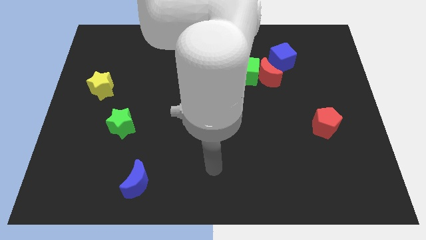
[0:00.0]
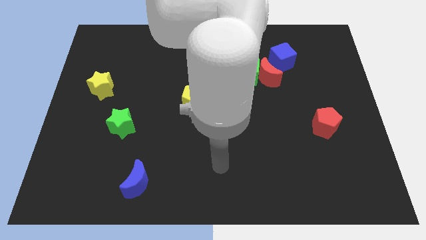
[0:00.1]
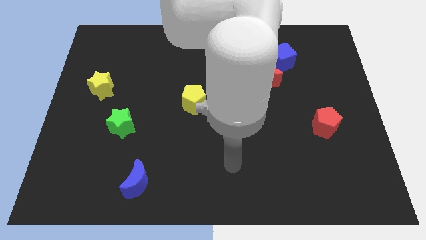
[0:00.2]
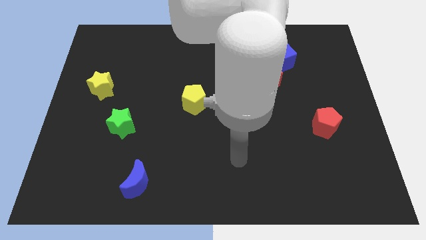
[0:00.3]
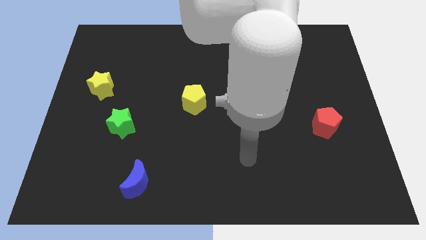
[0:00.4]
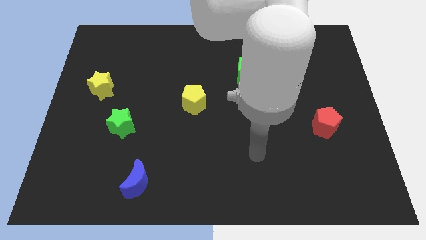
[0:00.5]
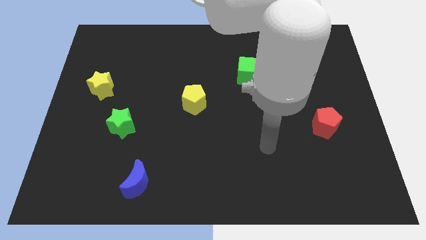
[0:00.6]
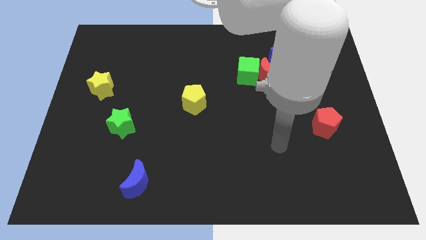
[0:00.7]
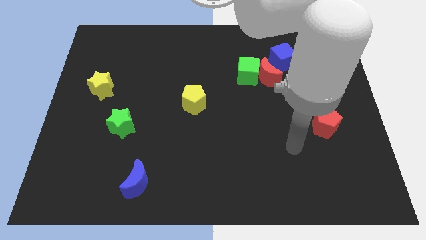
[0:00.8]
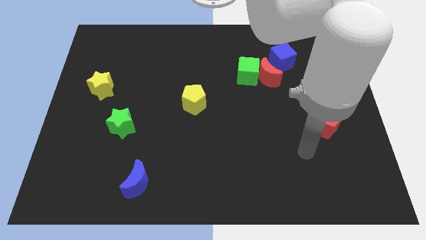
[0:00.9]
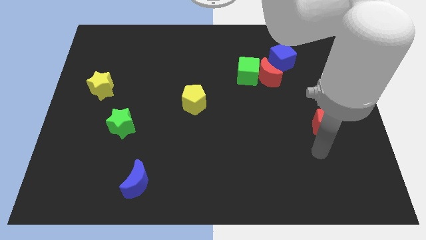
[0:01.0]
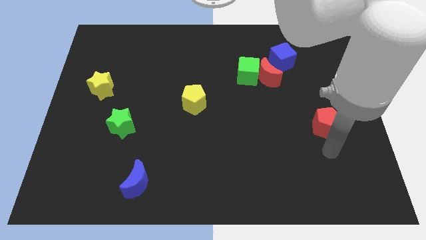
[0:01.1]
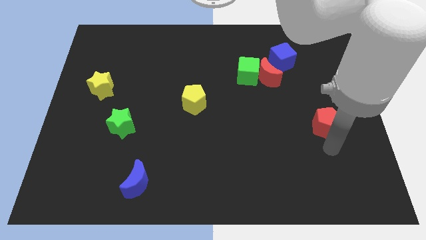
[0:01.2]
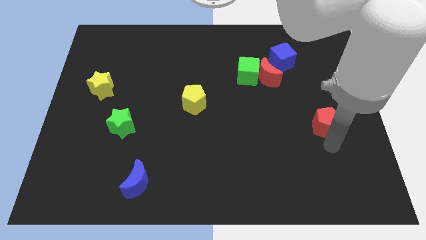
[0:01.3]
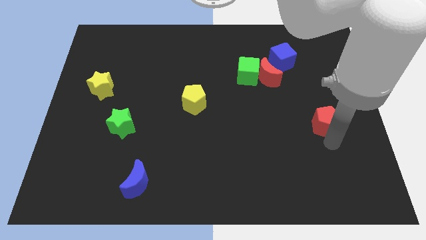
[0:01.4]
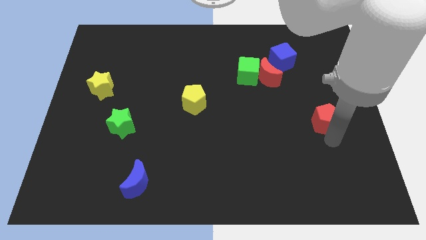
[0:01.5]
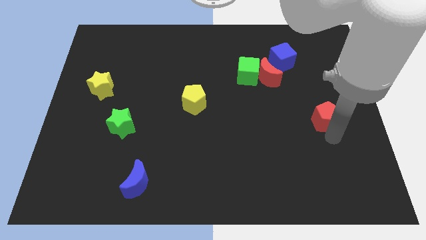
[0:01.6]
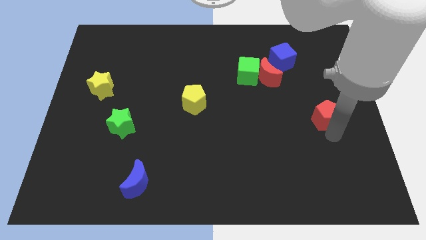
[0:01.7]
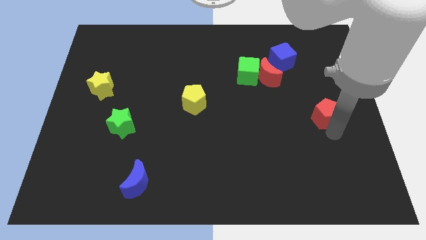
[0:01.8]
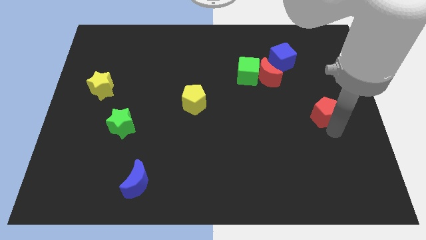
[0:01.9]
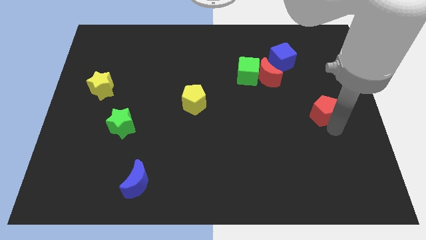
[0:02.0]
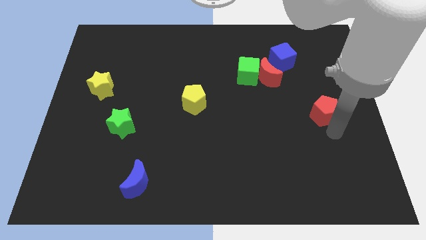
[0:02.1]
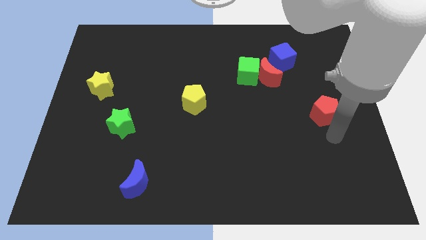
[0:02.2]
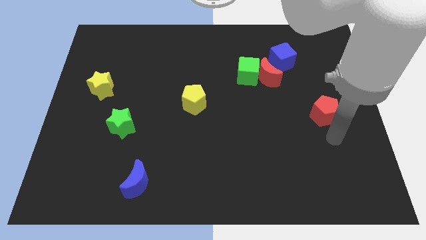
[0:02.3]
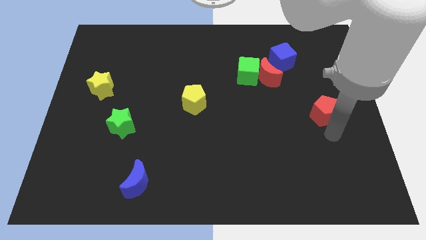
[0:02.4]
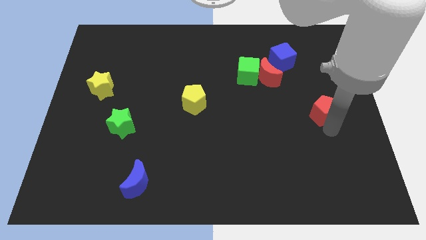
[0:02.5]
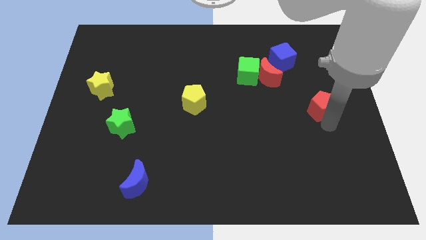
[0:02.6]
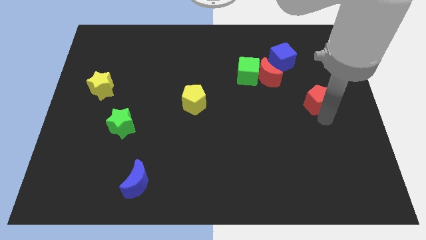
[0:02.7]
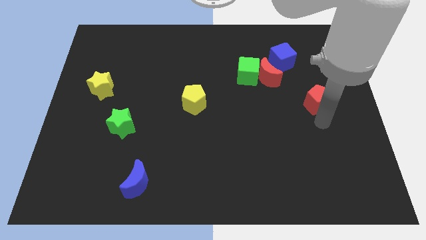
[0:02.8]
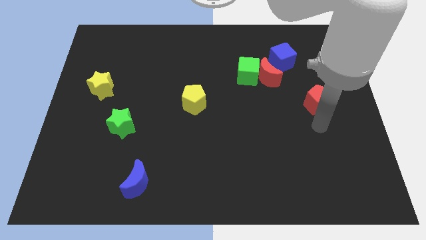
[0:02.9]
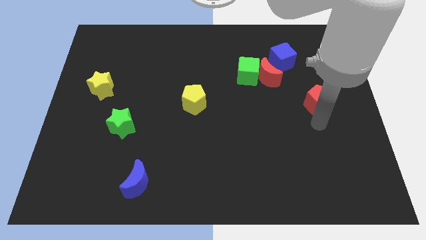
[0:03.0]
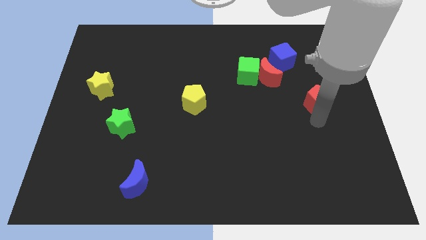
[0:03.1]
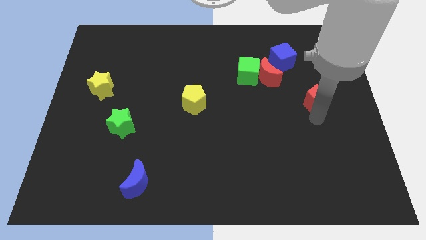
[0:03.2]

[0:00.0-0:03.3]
slightly slide the red pentagon upwards

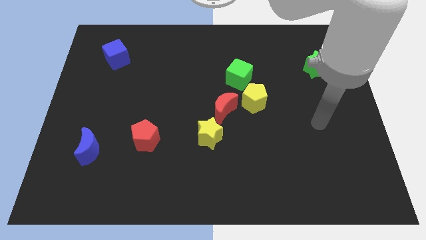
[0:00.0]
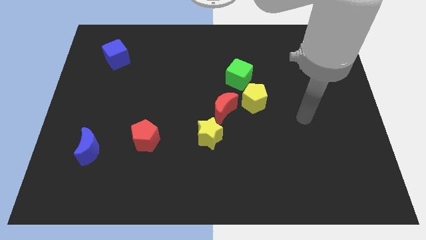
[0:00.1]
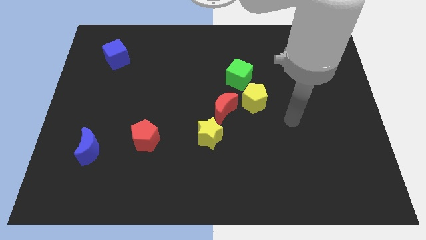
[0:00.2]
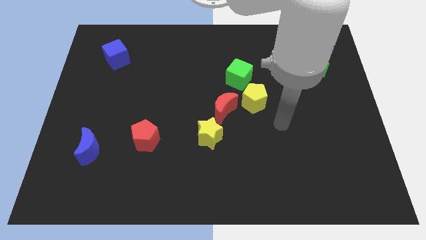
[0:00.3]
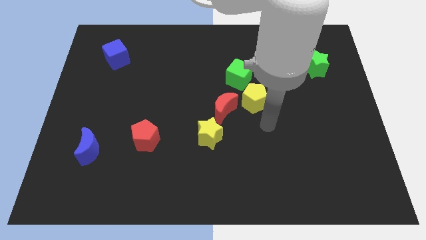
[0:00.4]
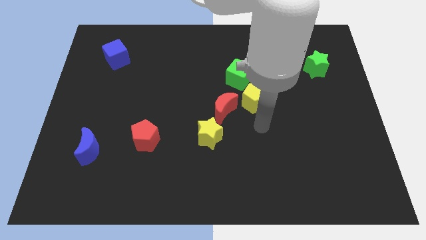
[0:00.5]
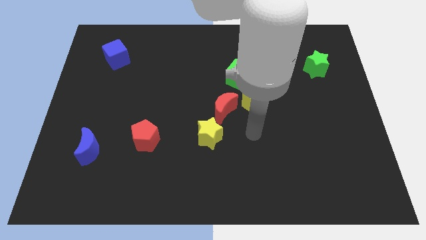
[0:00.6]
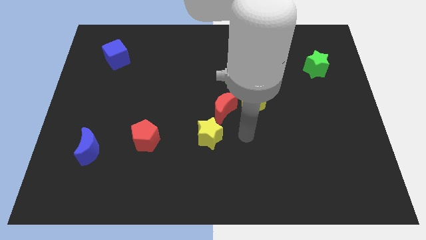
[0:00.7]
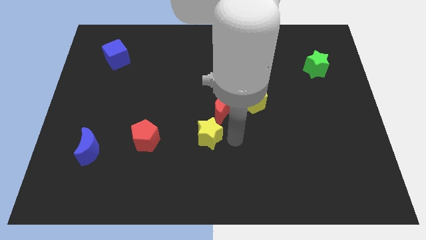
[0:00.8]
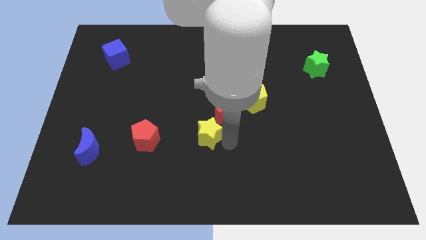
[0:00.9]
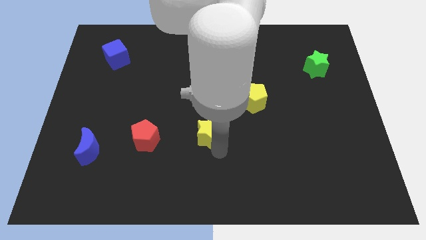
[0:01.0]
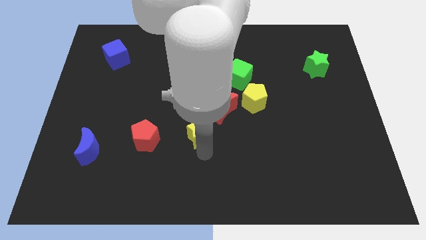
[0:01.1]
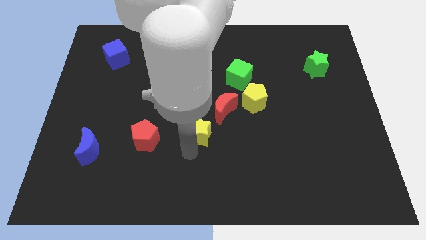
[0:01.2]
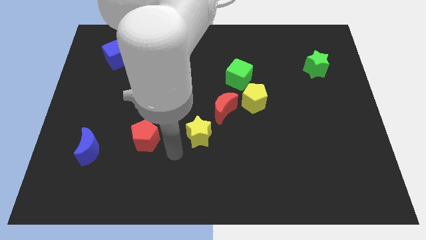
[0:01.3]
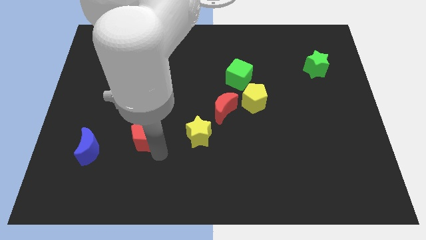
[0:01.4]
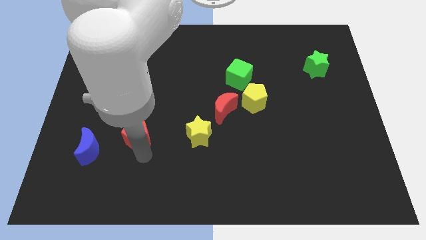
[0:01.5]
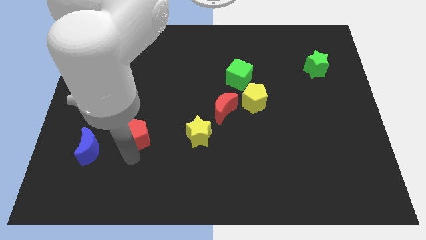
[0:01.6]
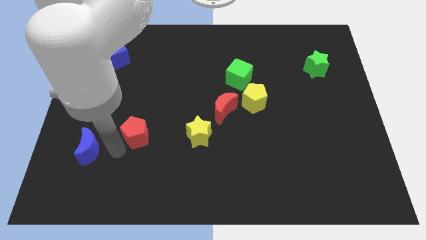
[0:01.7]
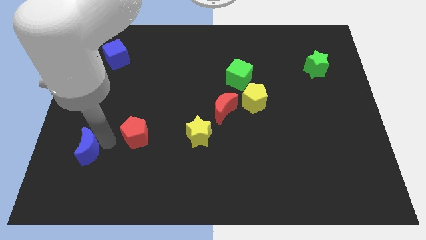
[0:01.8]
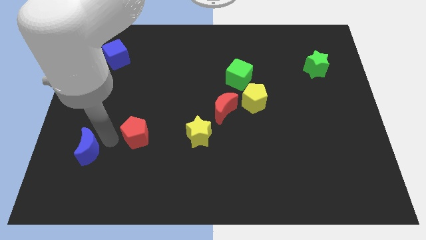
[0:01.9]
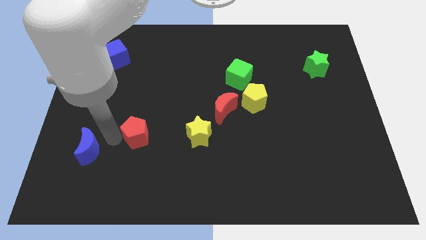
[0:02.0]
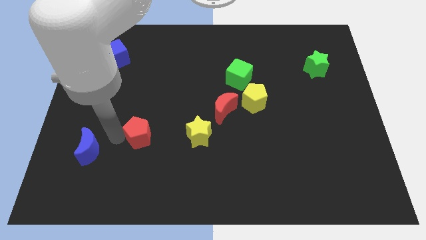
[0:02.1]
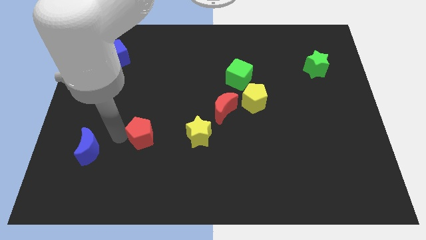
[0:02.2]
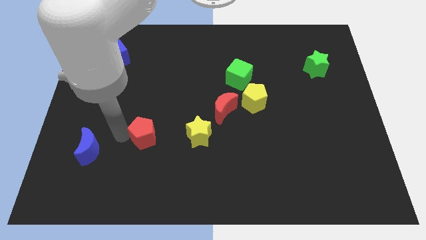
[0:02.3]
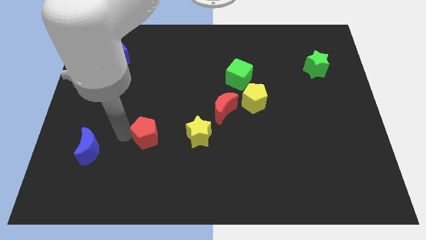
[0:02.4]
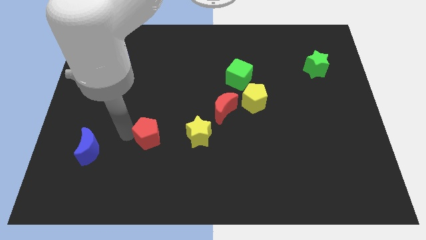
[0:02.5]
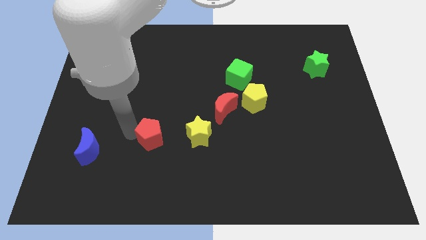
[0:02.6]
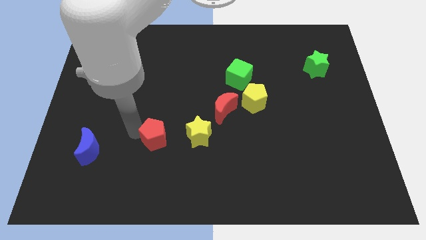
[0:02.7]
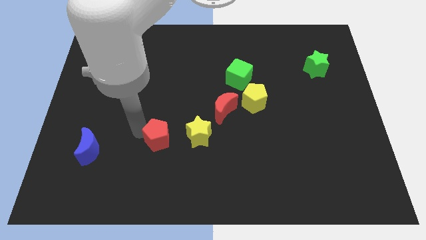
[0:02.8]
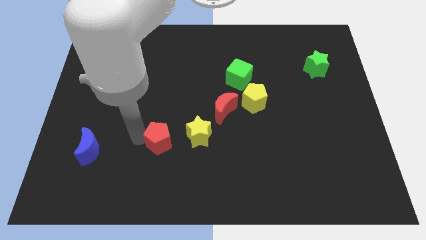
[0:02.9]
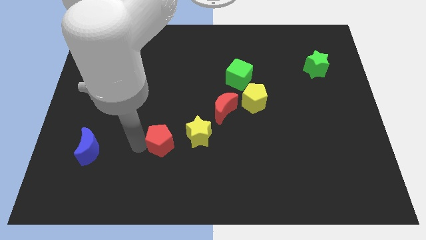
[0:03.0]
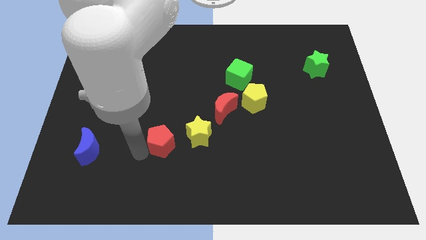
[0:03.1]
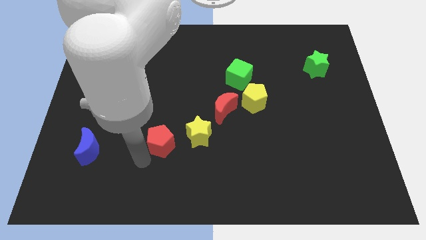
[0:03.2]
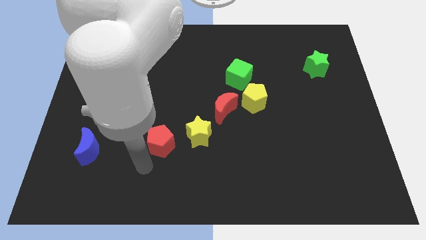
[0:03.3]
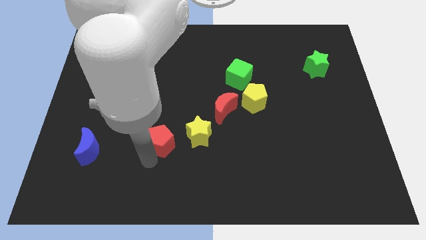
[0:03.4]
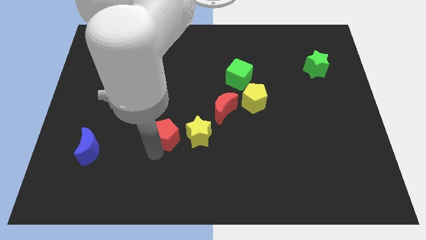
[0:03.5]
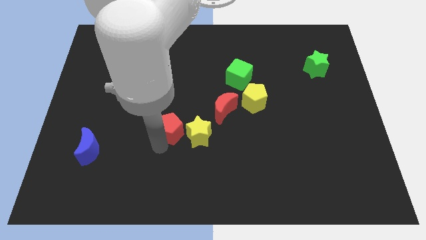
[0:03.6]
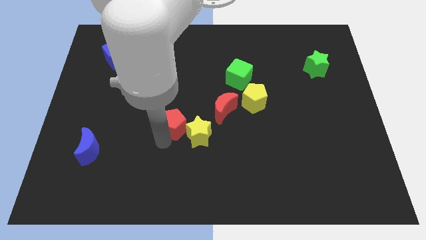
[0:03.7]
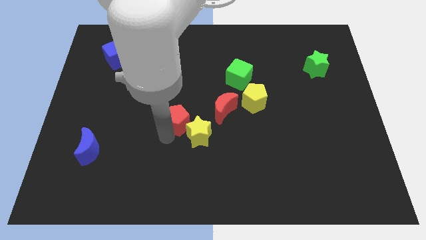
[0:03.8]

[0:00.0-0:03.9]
push the red pentagon somewhat diagonally upwards and right
